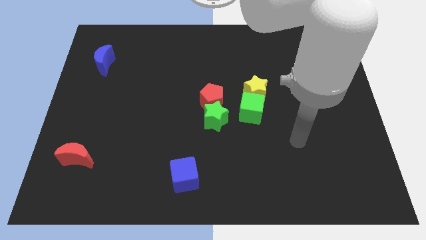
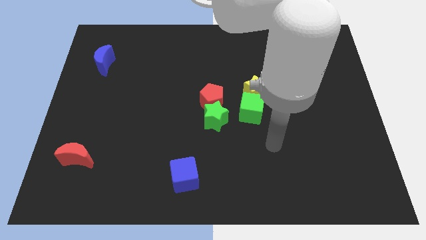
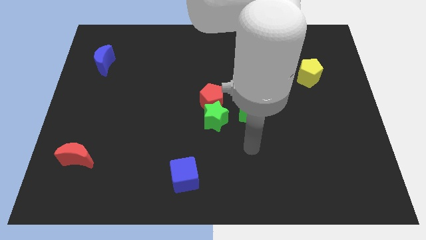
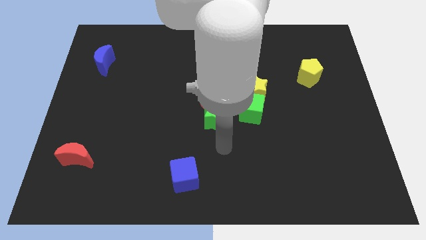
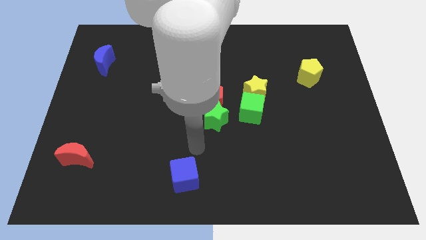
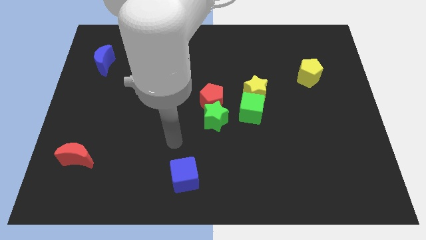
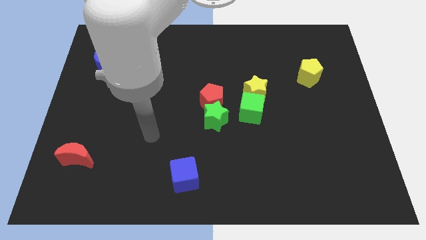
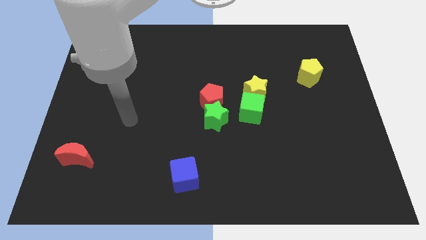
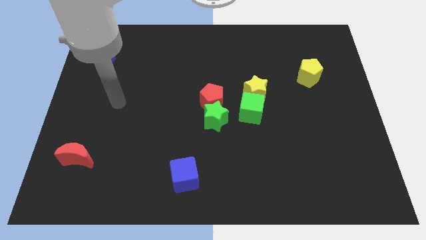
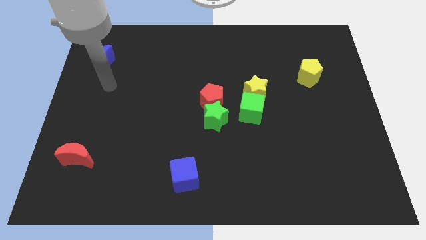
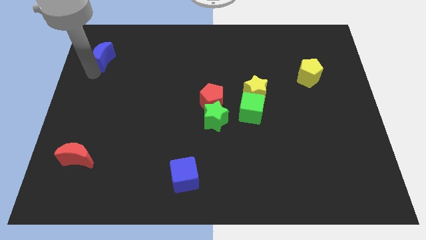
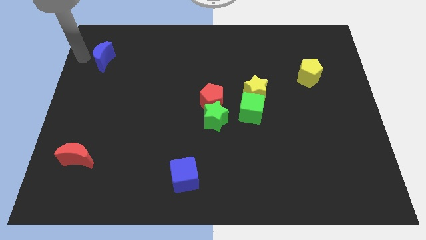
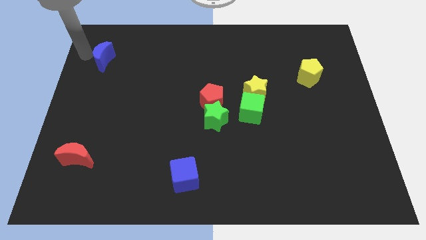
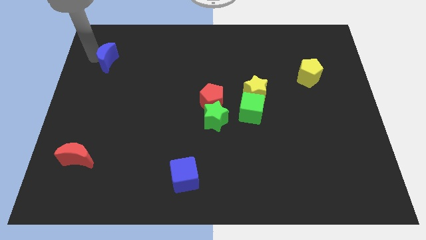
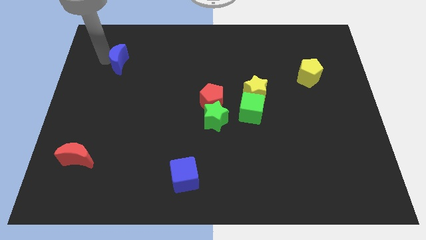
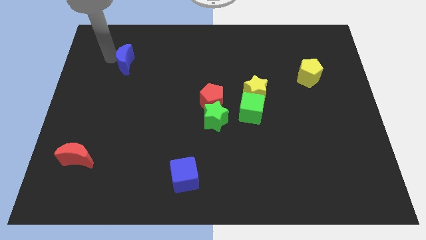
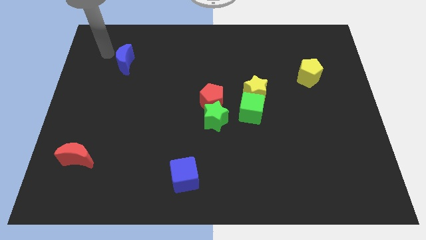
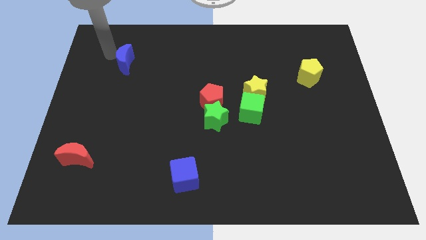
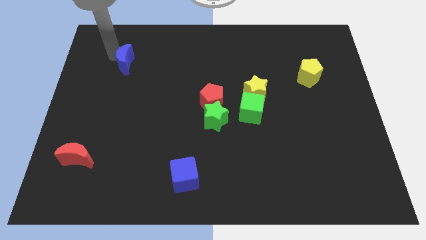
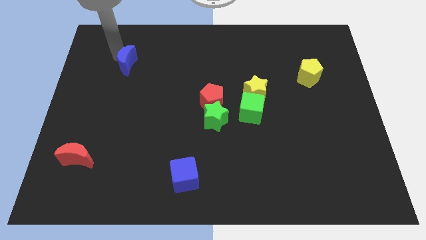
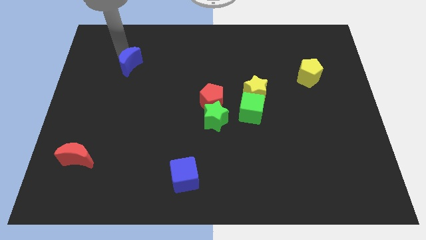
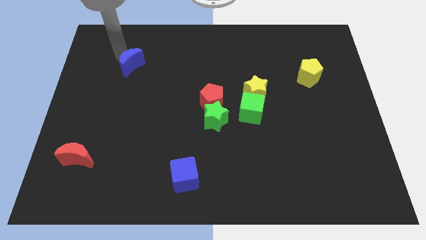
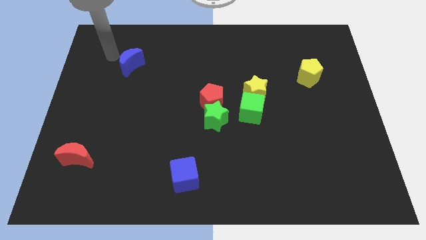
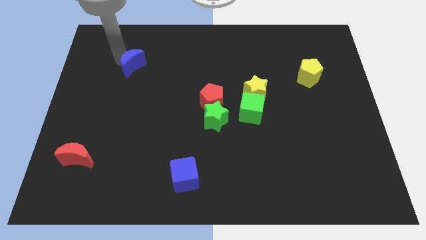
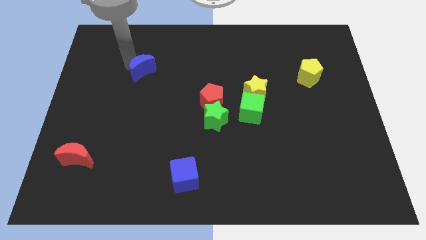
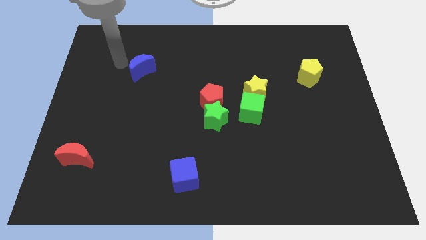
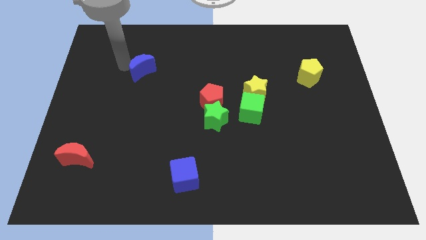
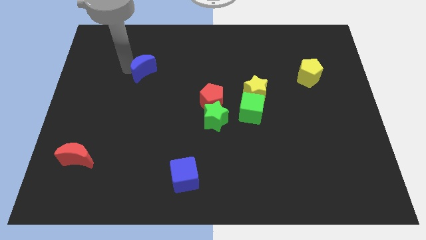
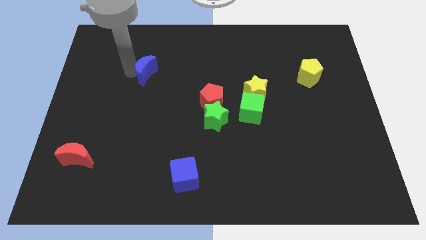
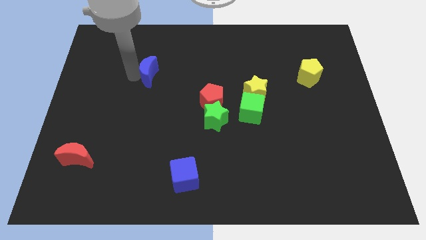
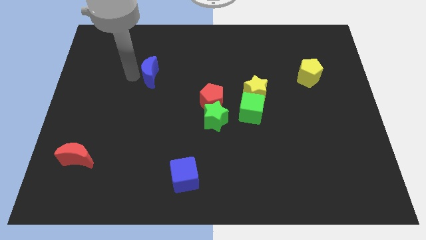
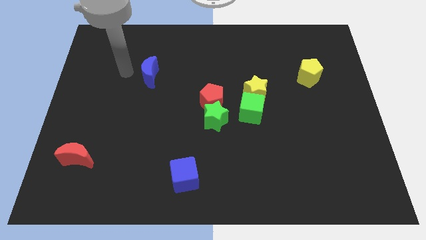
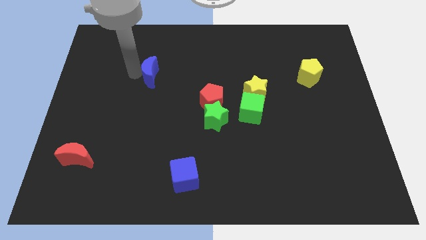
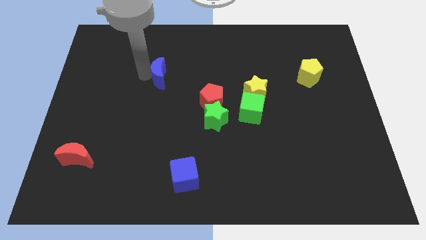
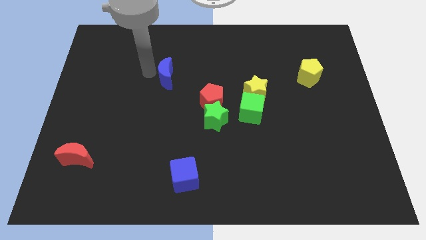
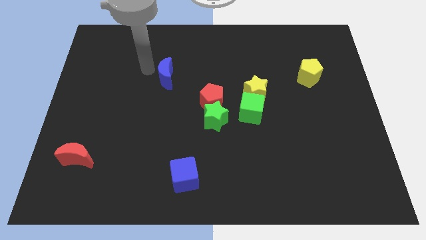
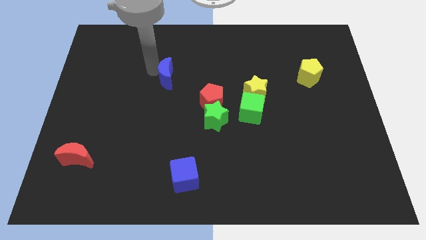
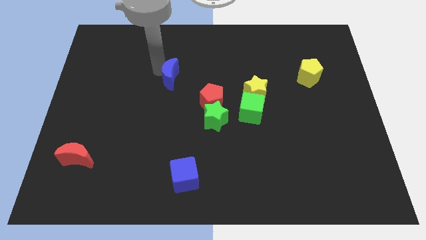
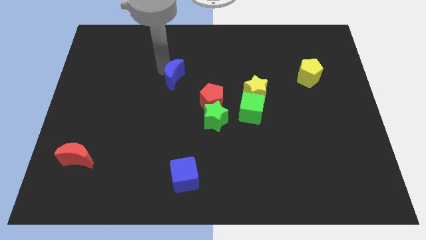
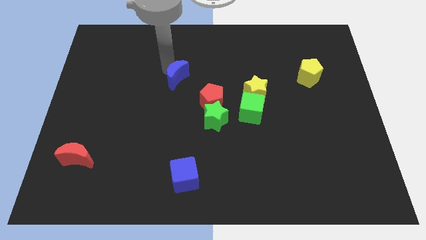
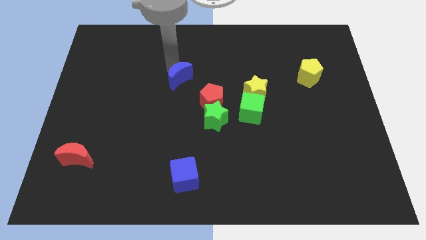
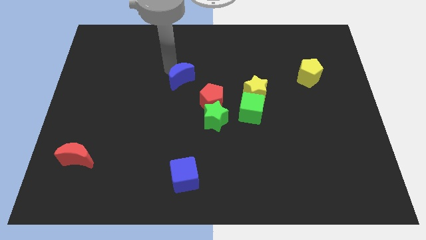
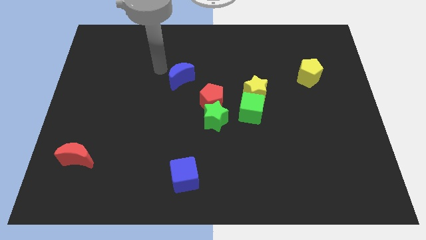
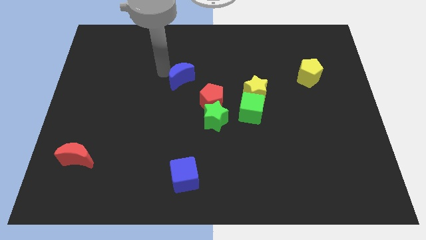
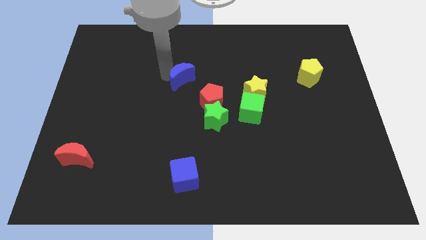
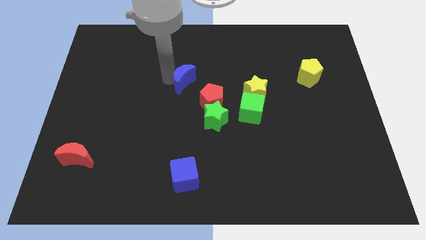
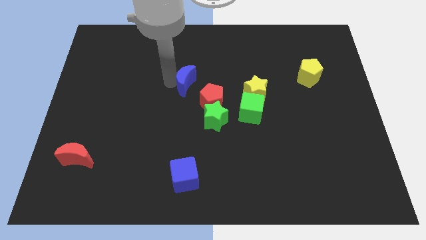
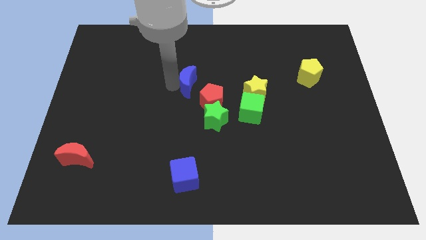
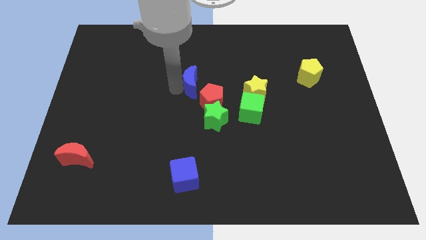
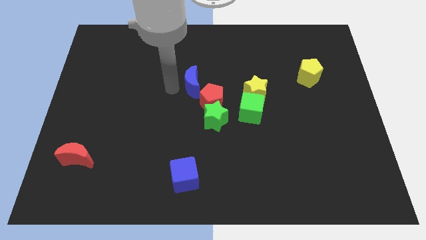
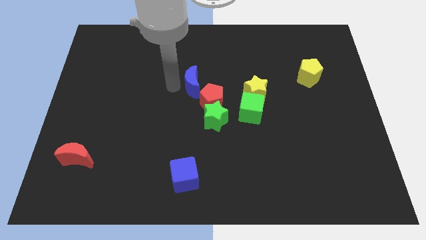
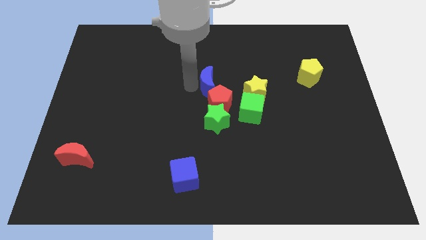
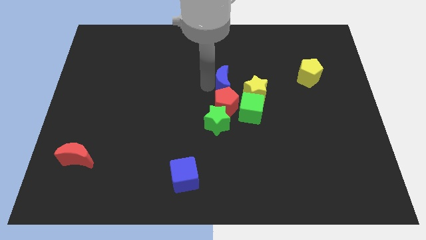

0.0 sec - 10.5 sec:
put the blue moon to the top right of the red pentagon

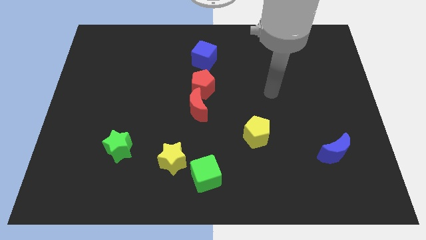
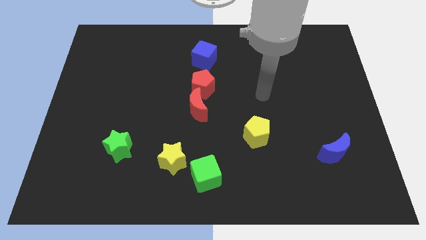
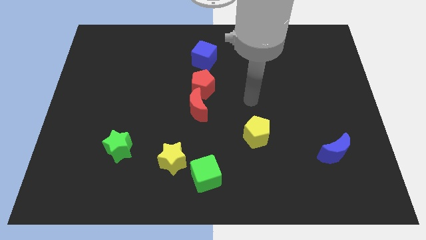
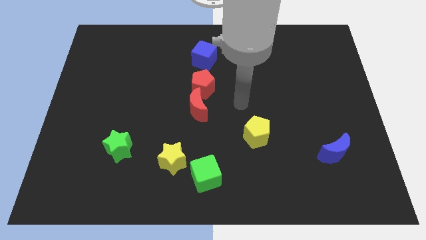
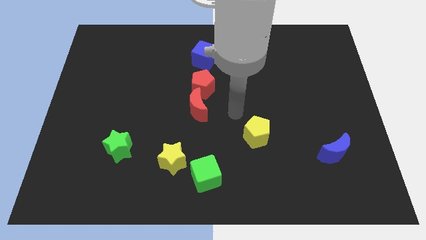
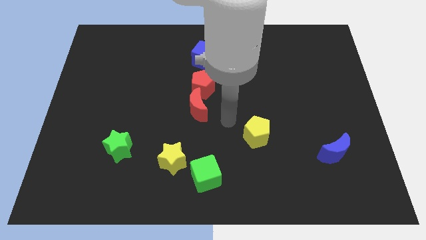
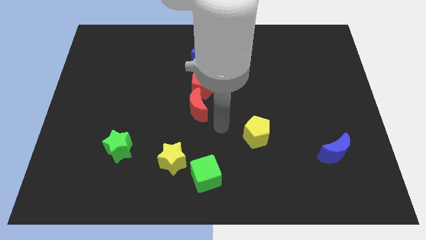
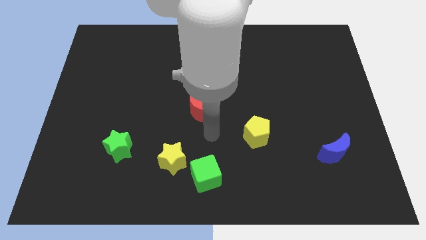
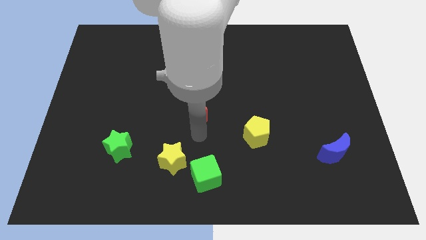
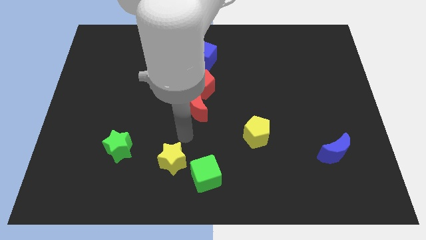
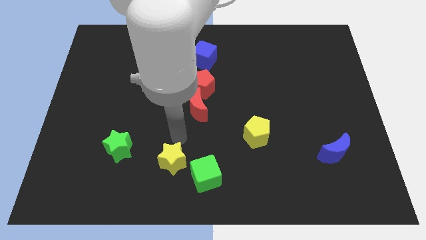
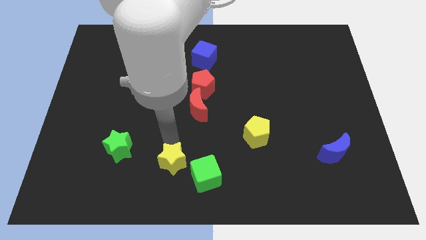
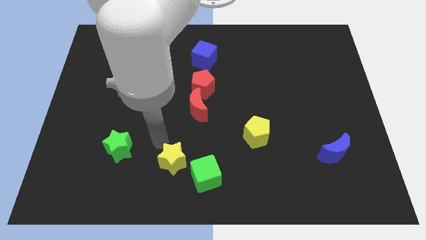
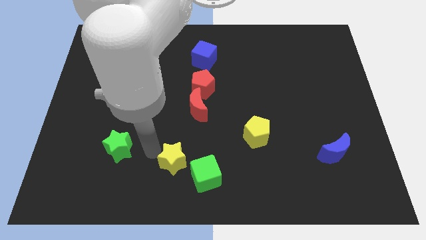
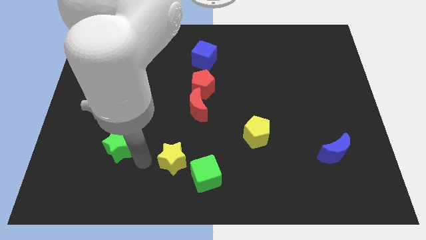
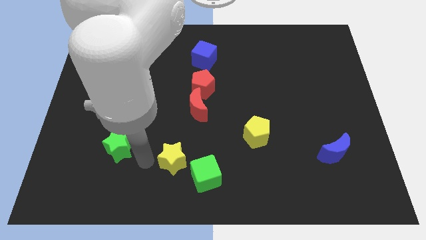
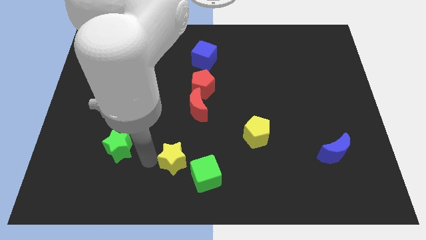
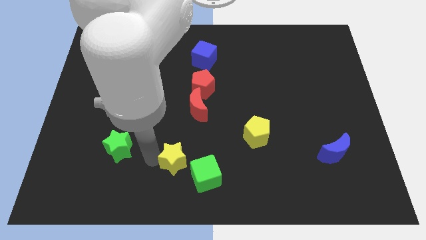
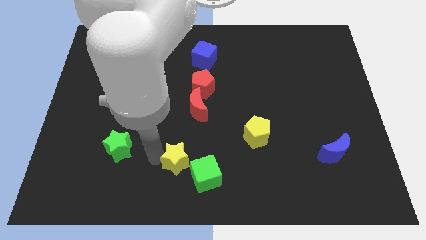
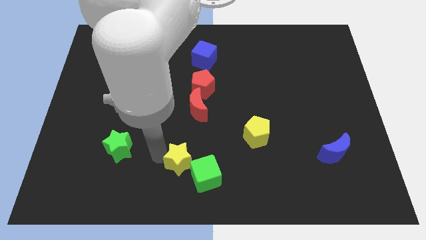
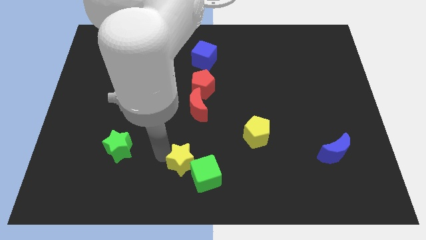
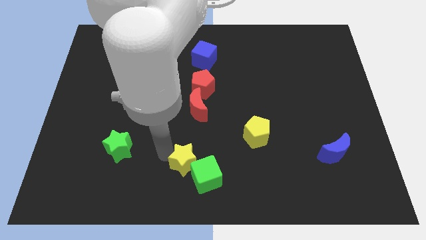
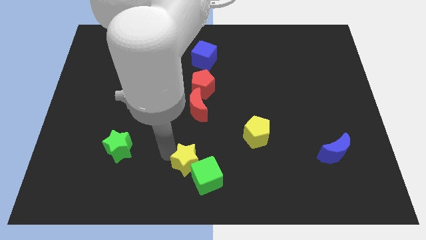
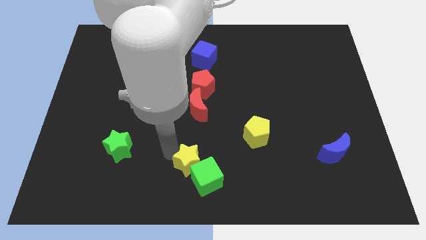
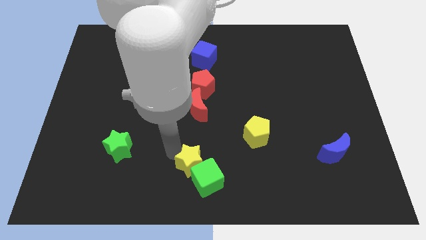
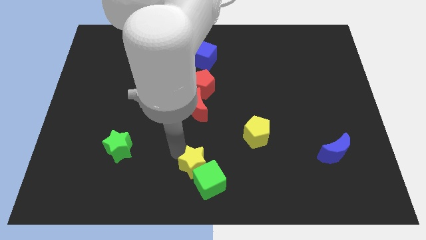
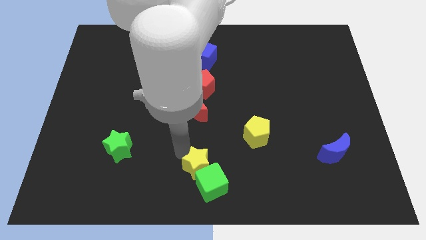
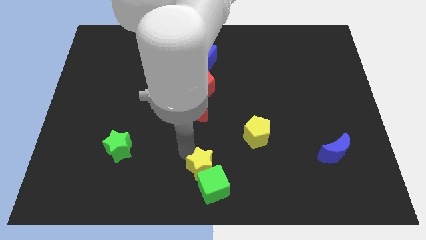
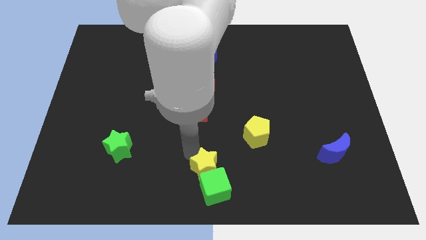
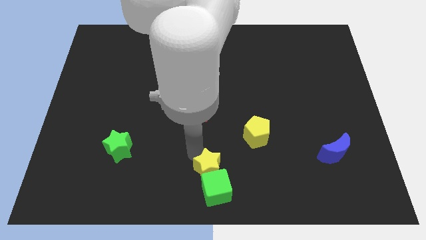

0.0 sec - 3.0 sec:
put the yellow star to the top right of the green cube

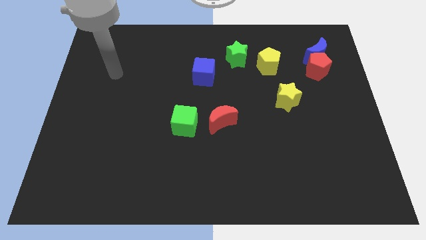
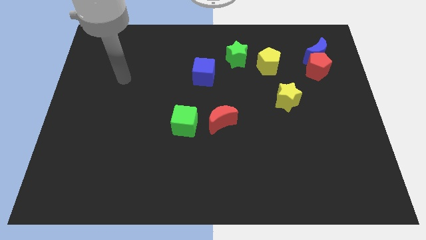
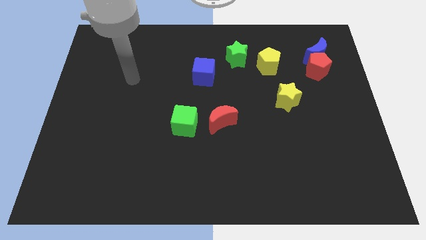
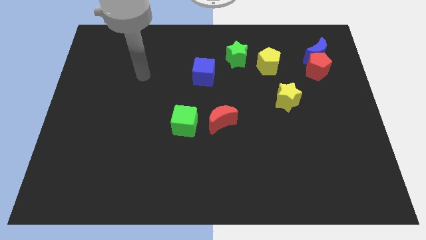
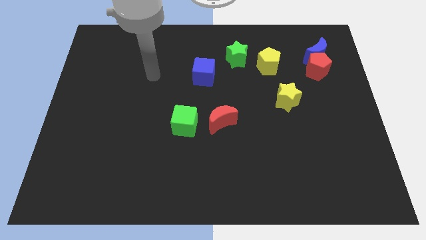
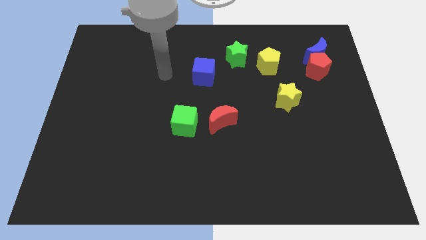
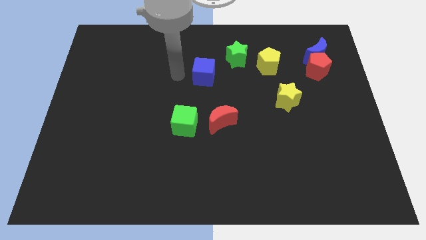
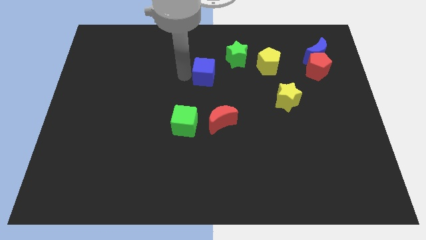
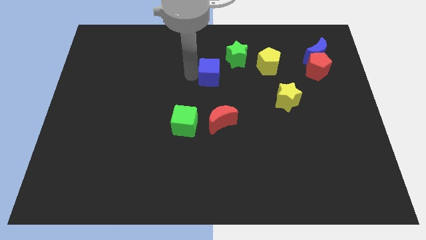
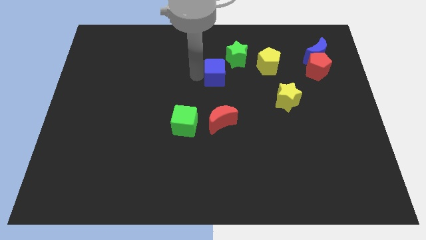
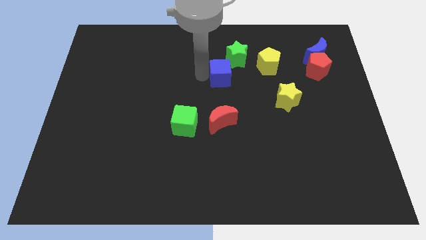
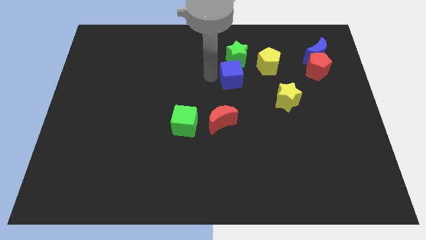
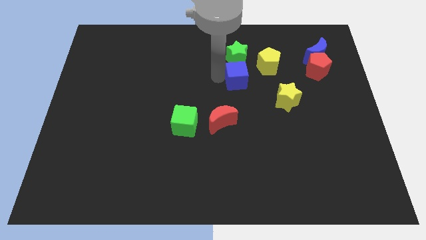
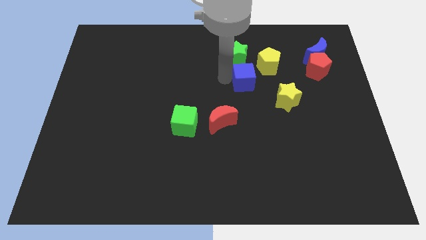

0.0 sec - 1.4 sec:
put the blue cube diagonally down and to the right of the green star
